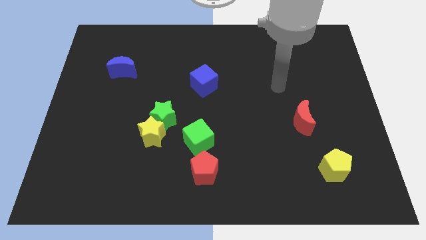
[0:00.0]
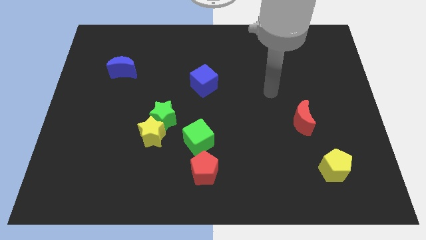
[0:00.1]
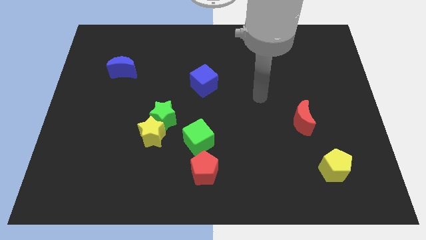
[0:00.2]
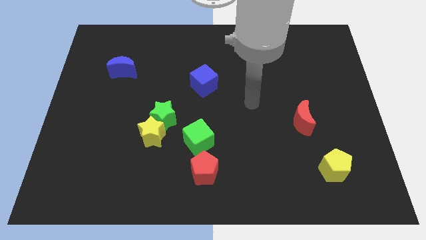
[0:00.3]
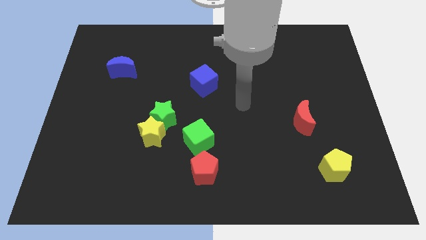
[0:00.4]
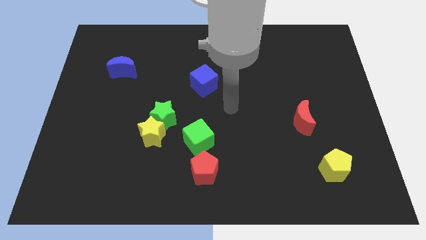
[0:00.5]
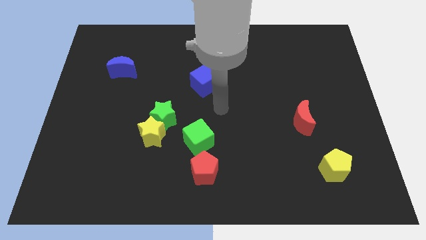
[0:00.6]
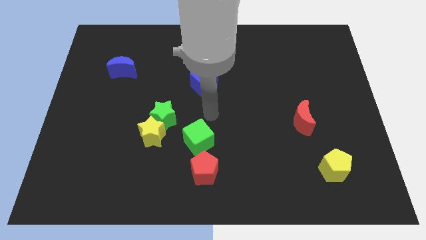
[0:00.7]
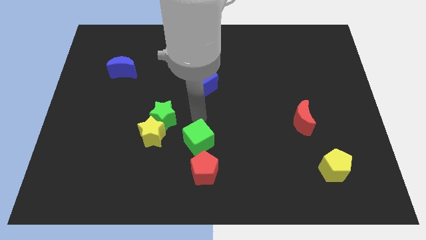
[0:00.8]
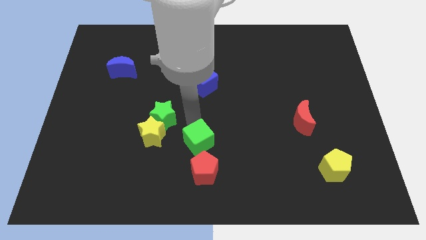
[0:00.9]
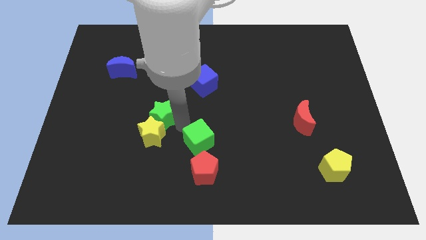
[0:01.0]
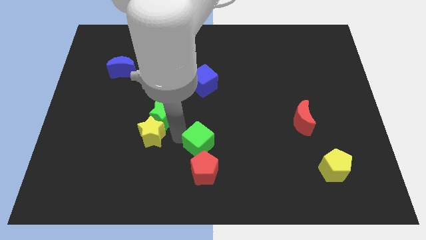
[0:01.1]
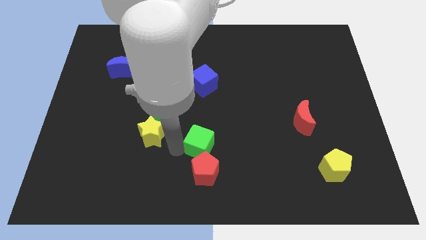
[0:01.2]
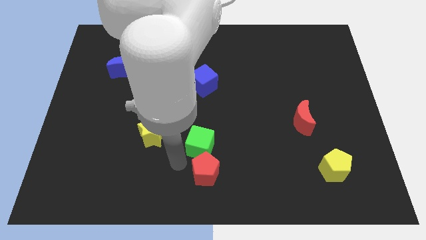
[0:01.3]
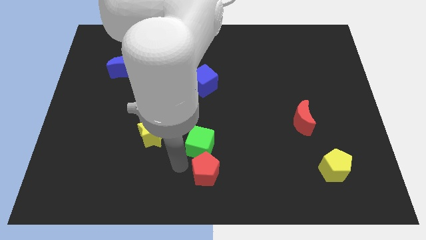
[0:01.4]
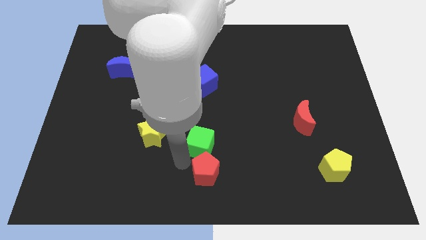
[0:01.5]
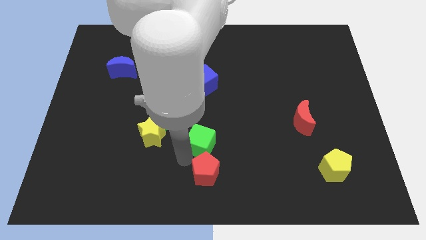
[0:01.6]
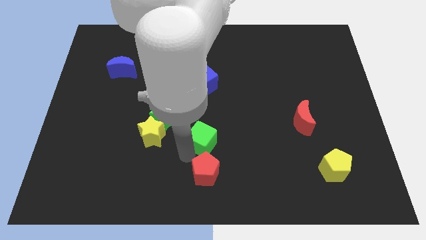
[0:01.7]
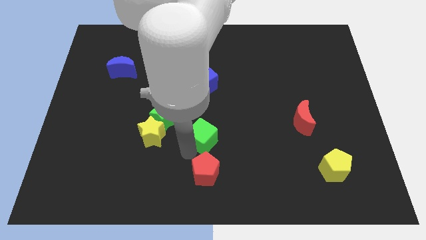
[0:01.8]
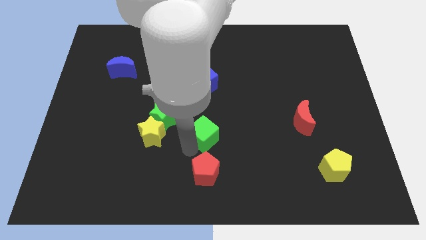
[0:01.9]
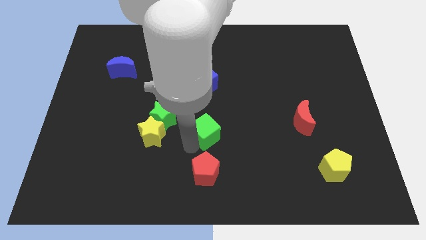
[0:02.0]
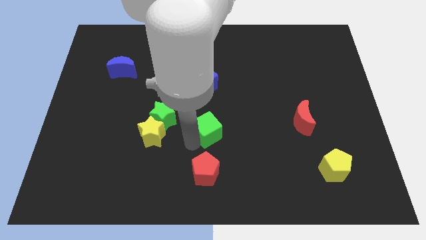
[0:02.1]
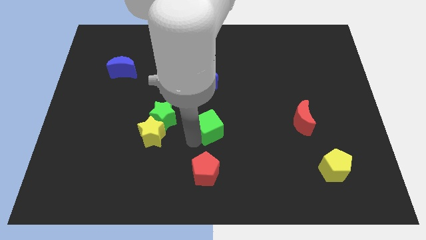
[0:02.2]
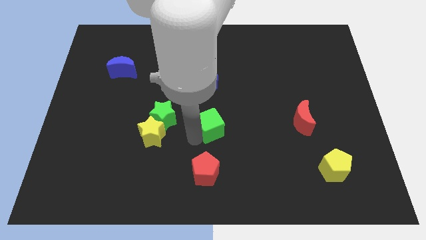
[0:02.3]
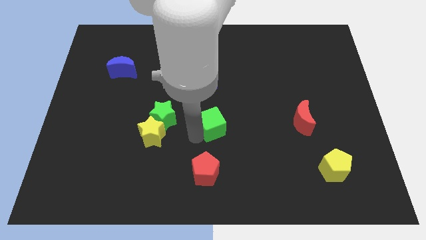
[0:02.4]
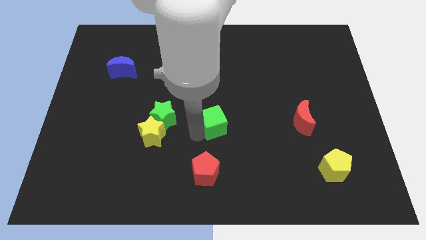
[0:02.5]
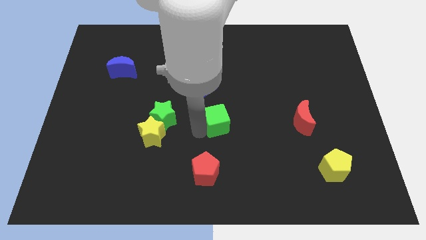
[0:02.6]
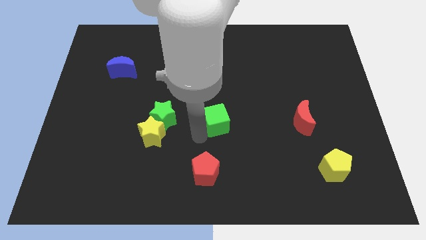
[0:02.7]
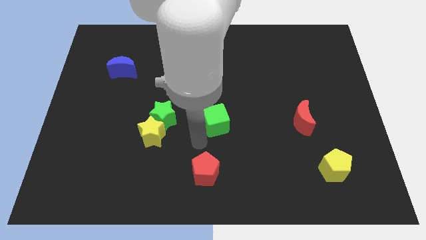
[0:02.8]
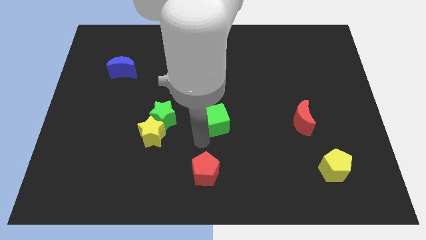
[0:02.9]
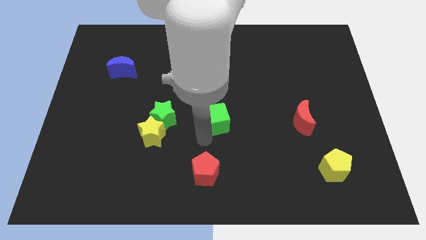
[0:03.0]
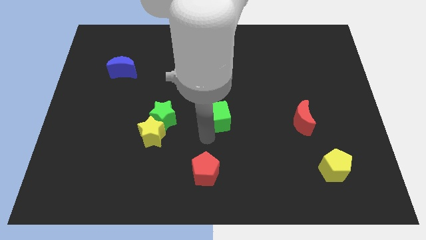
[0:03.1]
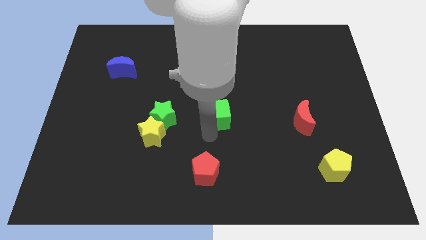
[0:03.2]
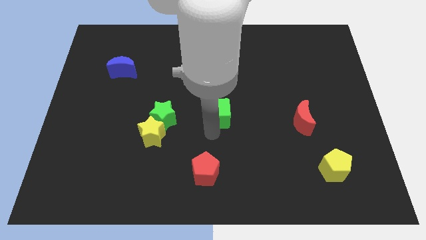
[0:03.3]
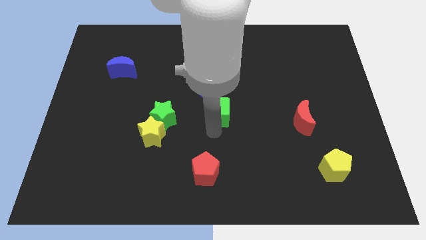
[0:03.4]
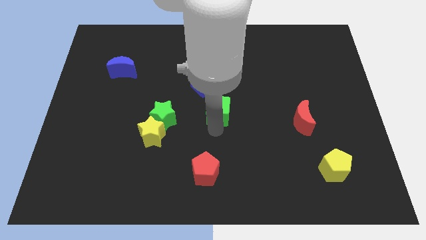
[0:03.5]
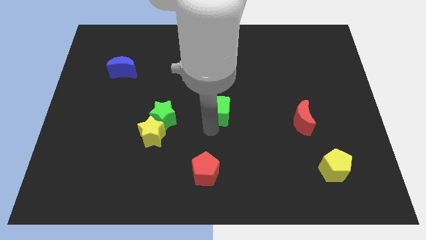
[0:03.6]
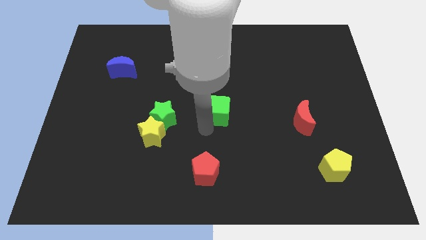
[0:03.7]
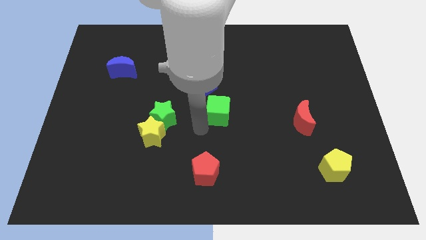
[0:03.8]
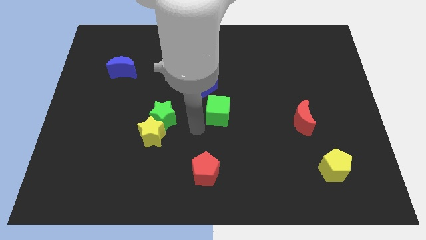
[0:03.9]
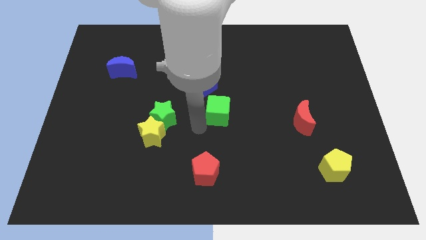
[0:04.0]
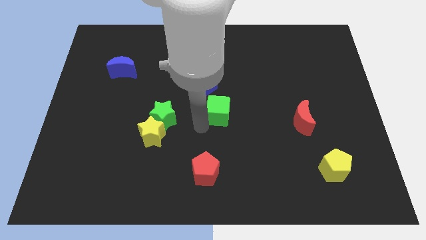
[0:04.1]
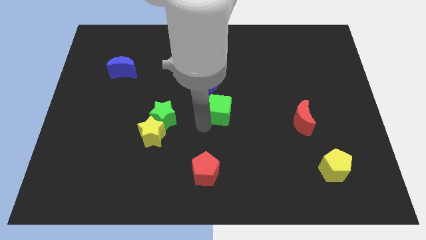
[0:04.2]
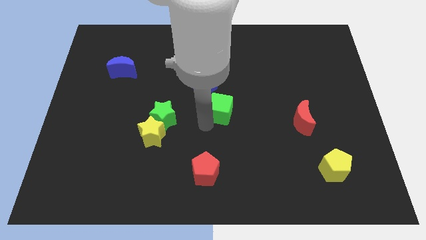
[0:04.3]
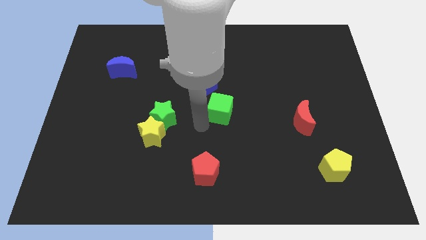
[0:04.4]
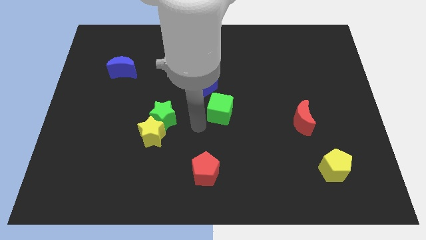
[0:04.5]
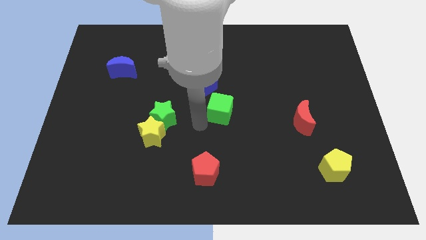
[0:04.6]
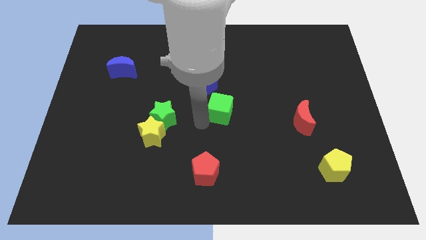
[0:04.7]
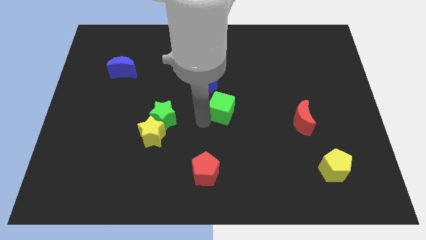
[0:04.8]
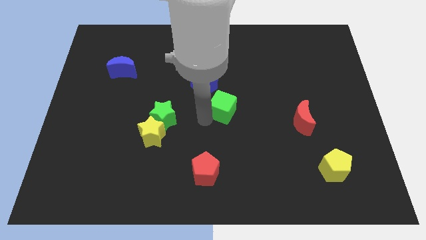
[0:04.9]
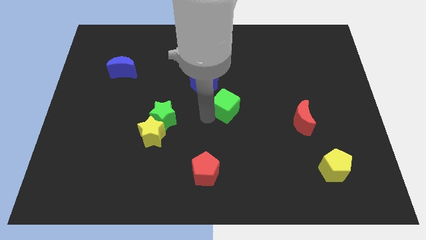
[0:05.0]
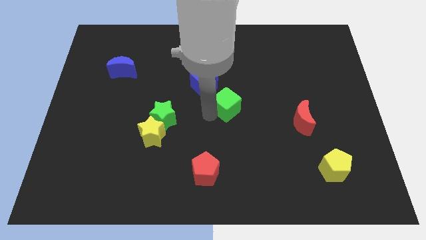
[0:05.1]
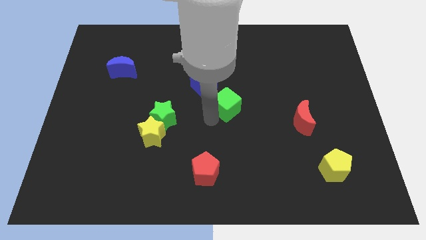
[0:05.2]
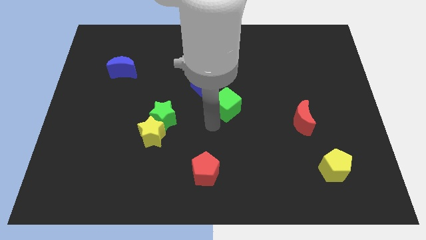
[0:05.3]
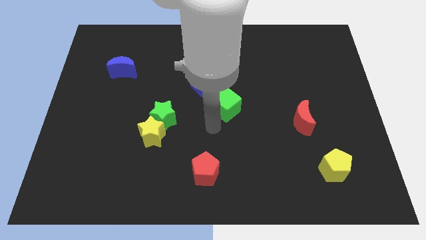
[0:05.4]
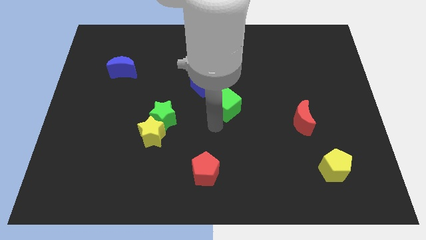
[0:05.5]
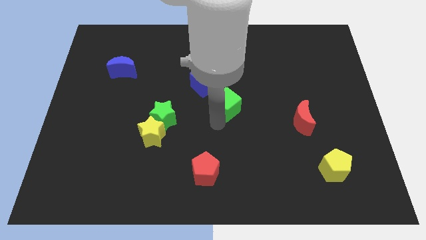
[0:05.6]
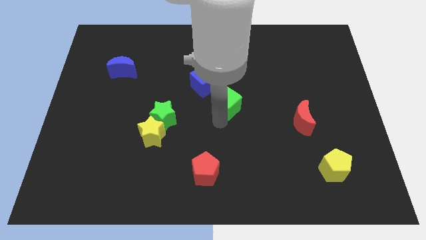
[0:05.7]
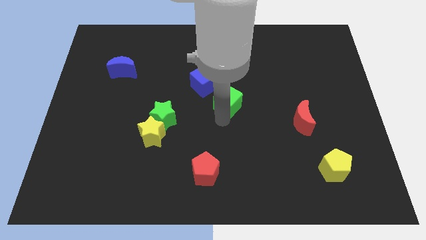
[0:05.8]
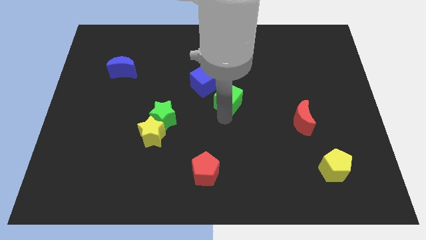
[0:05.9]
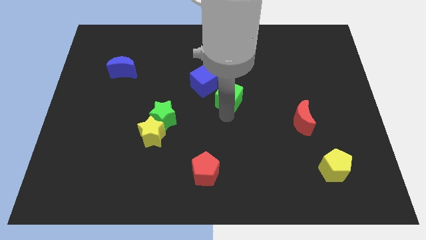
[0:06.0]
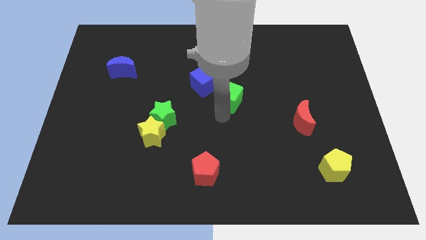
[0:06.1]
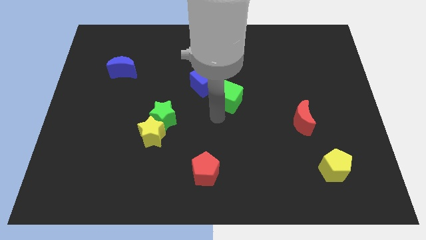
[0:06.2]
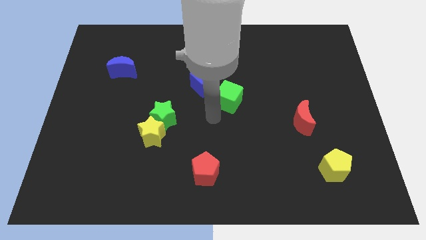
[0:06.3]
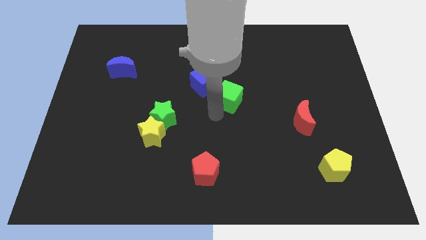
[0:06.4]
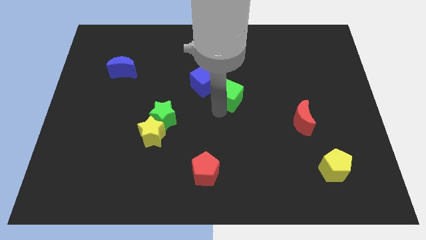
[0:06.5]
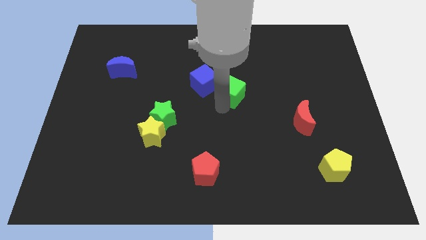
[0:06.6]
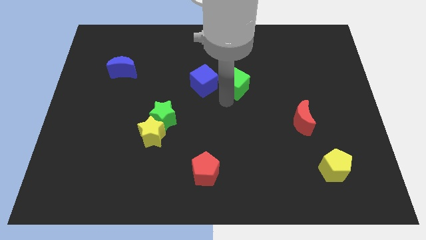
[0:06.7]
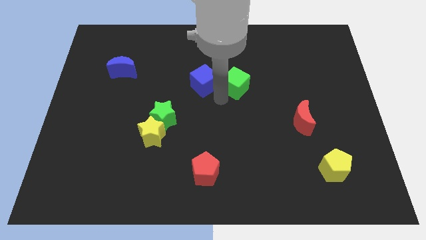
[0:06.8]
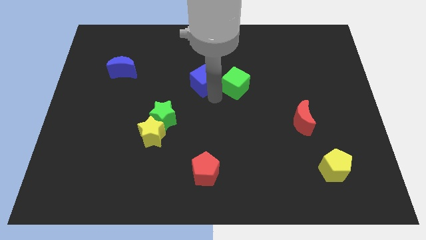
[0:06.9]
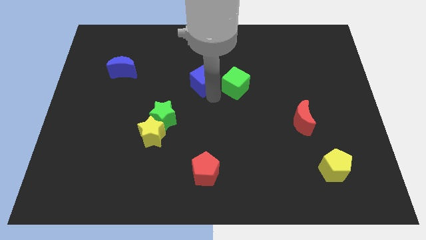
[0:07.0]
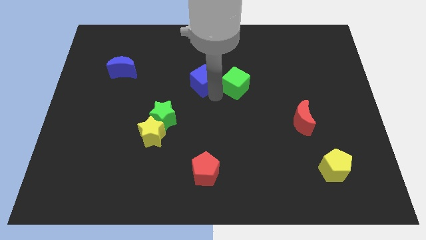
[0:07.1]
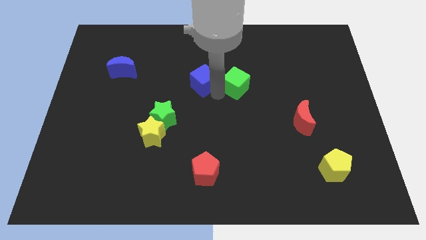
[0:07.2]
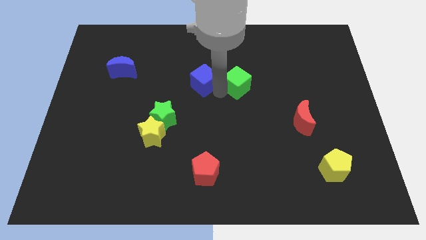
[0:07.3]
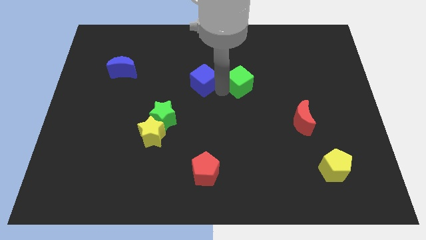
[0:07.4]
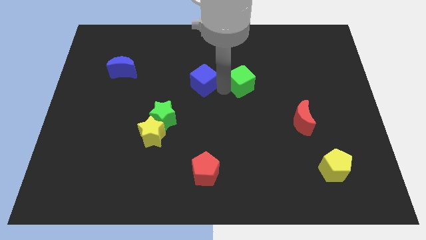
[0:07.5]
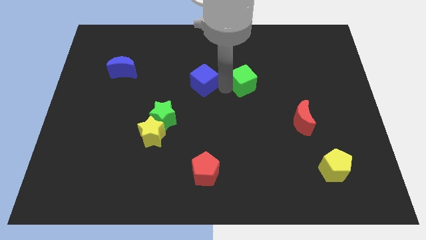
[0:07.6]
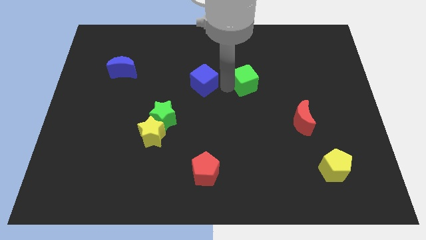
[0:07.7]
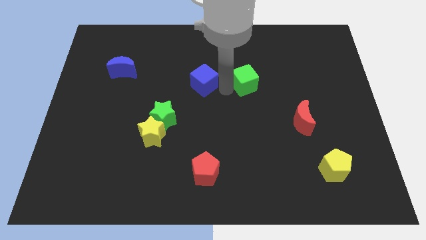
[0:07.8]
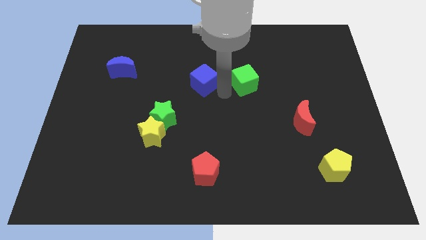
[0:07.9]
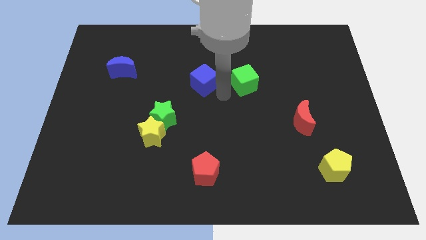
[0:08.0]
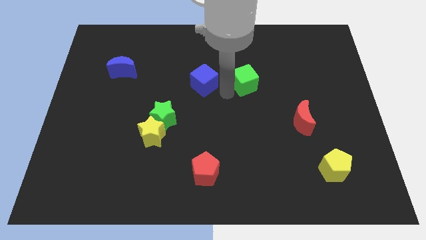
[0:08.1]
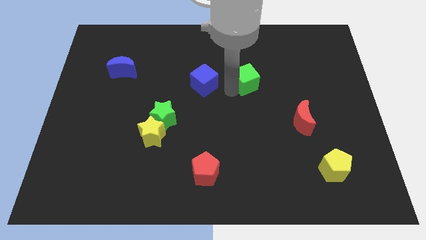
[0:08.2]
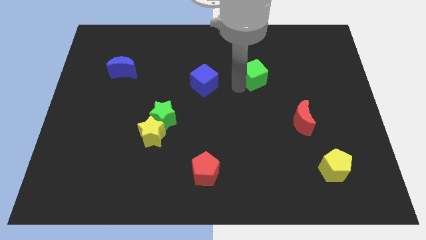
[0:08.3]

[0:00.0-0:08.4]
slide the green cube up and to the right
